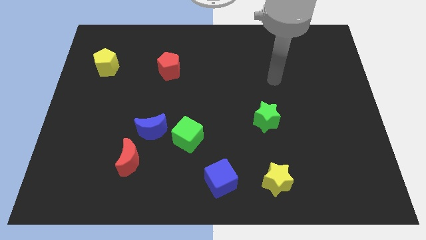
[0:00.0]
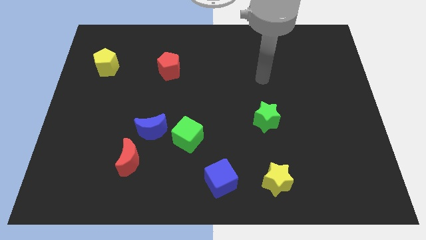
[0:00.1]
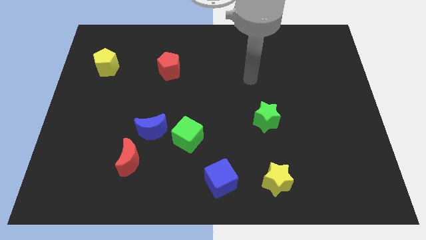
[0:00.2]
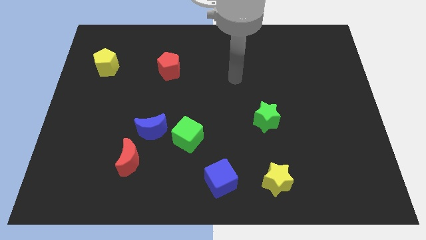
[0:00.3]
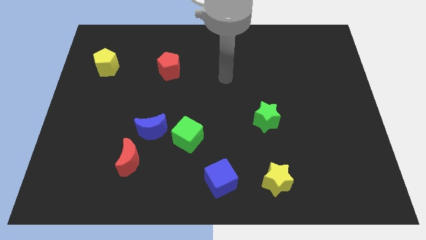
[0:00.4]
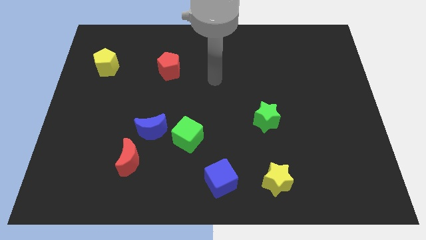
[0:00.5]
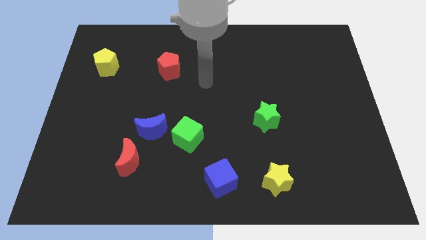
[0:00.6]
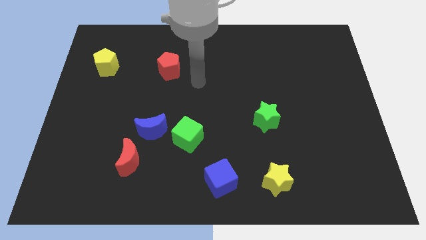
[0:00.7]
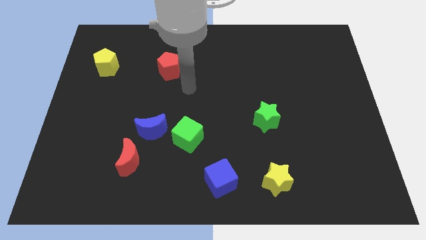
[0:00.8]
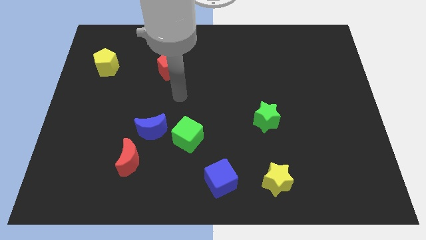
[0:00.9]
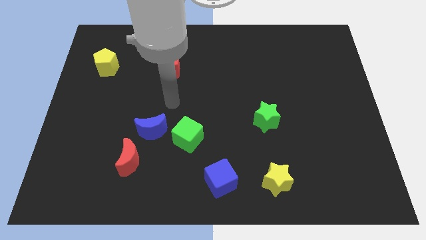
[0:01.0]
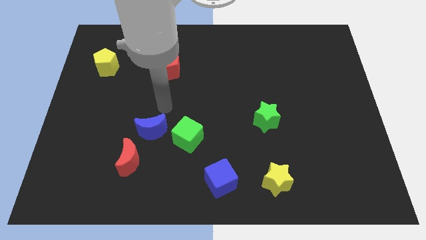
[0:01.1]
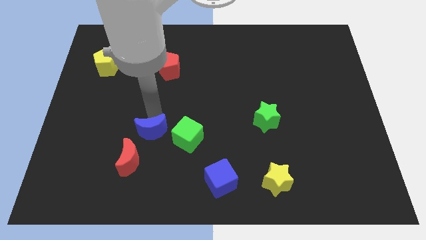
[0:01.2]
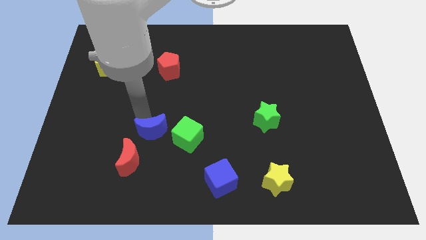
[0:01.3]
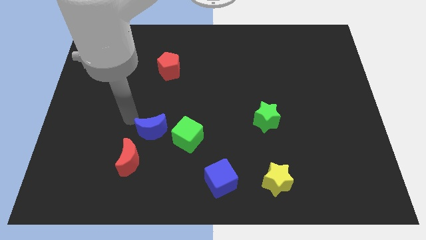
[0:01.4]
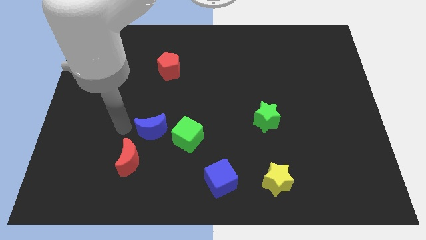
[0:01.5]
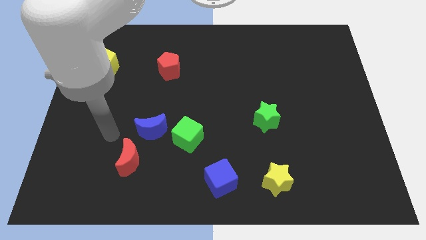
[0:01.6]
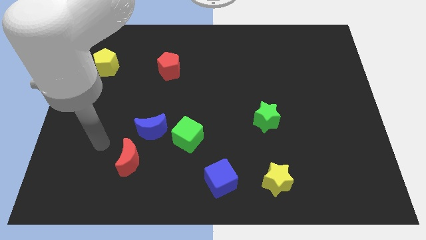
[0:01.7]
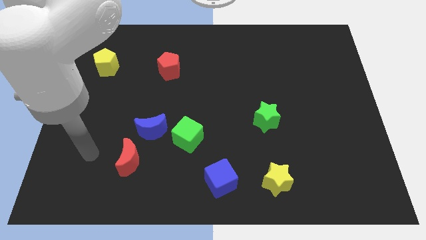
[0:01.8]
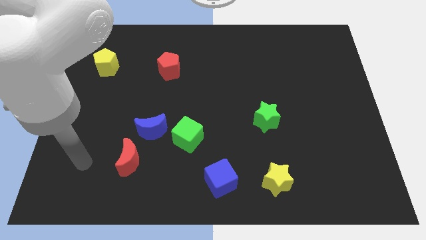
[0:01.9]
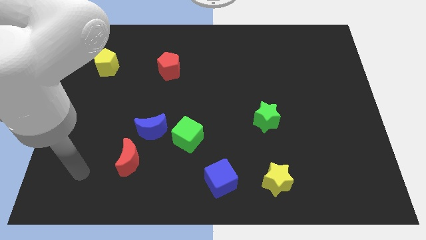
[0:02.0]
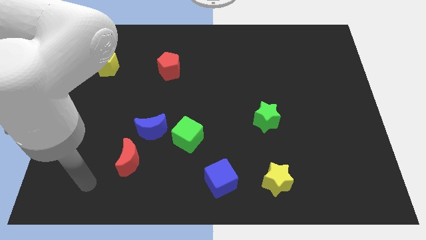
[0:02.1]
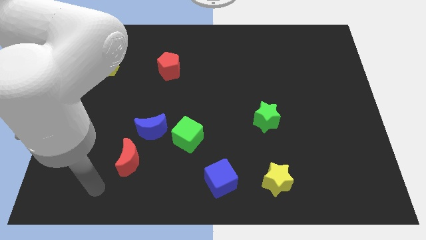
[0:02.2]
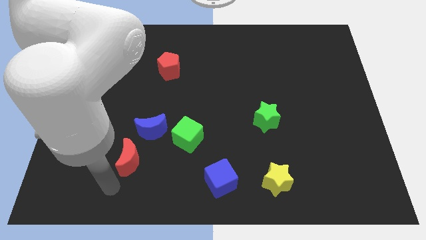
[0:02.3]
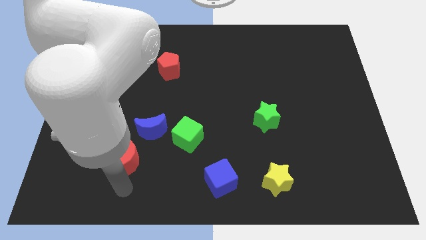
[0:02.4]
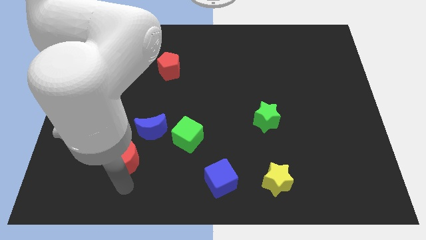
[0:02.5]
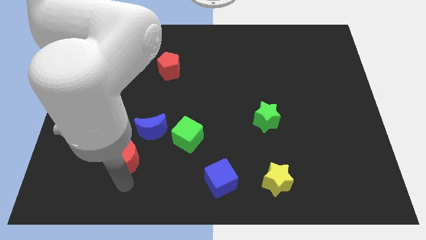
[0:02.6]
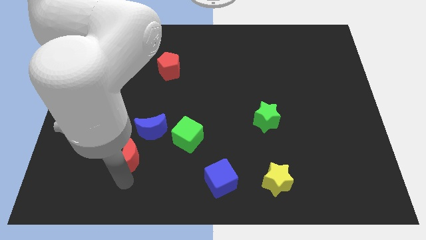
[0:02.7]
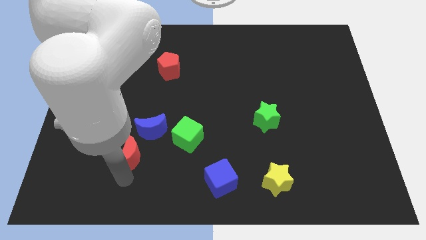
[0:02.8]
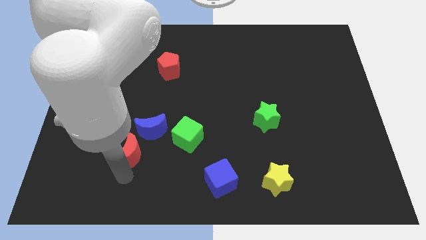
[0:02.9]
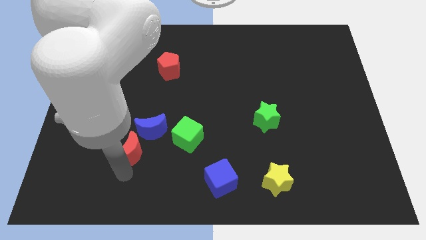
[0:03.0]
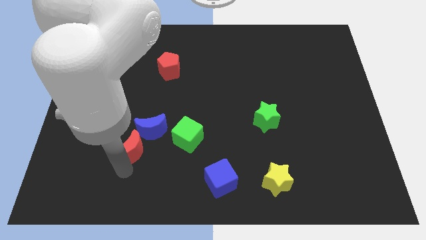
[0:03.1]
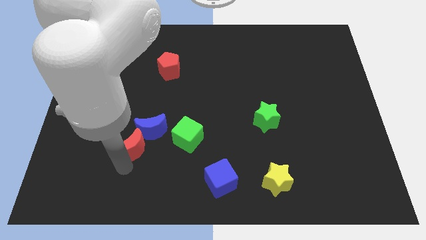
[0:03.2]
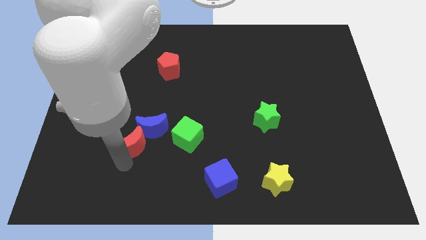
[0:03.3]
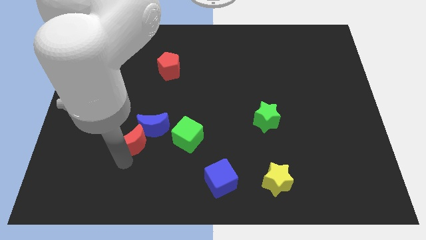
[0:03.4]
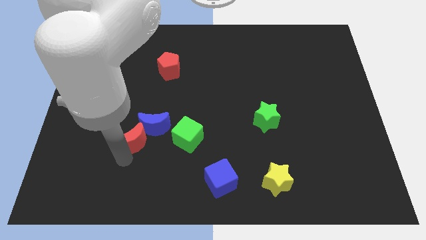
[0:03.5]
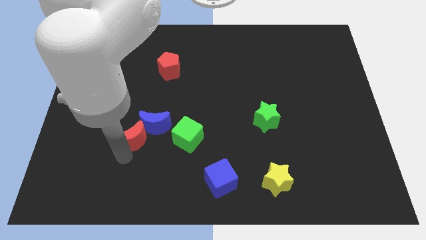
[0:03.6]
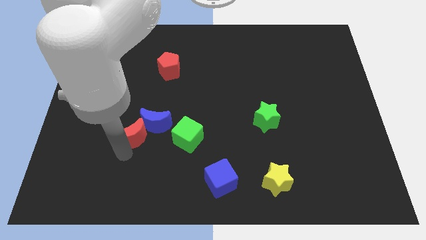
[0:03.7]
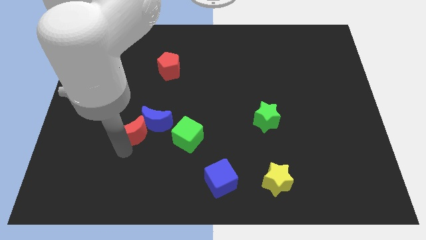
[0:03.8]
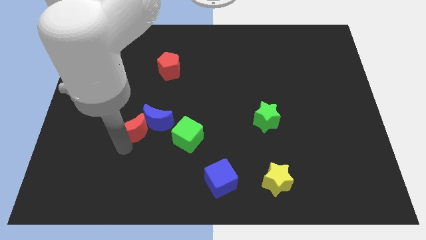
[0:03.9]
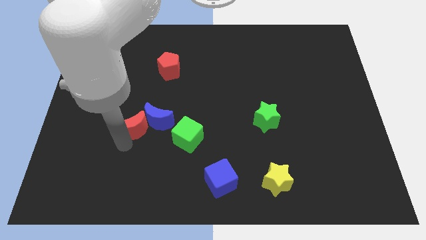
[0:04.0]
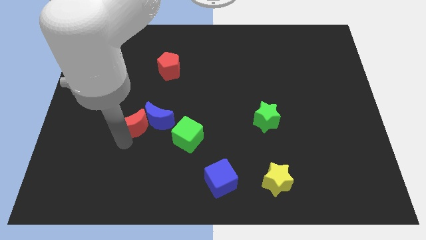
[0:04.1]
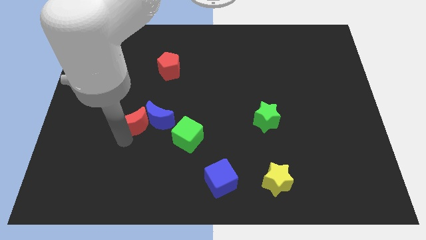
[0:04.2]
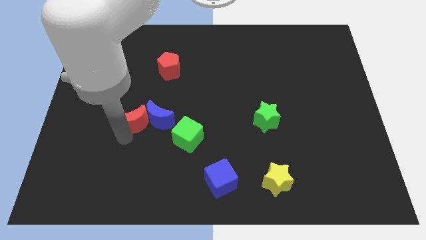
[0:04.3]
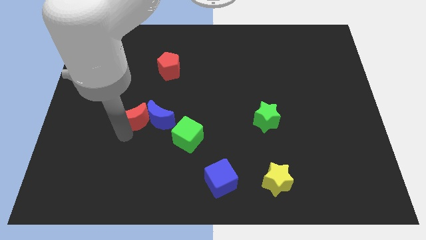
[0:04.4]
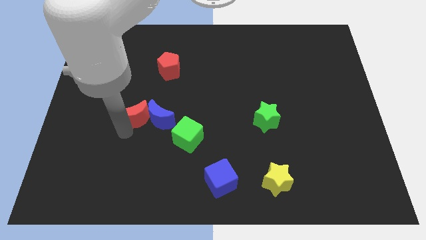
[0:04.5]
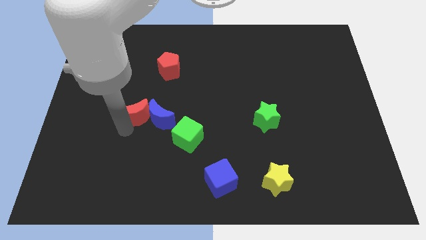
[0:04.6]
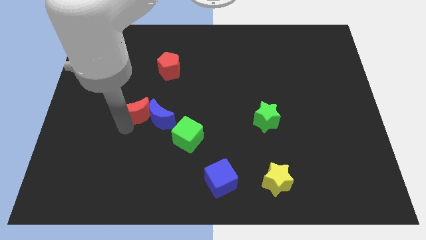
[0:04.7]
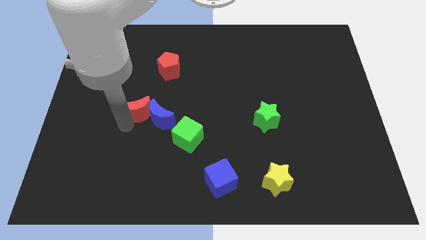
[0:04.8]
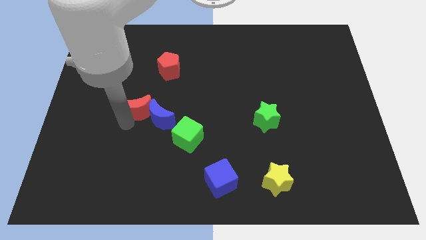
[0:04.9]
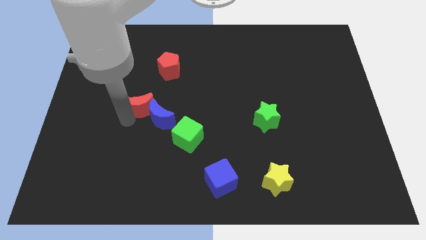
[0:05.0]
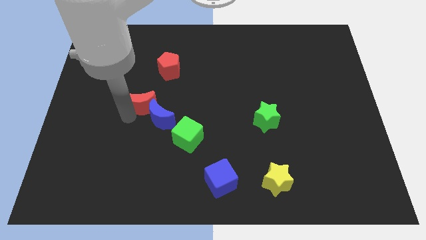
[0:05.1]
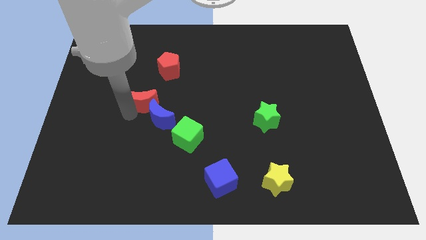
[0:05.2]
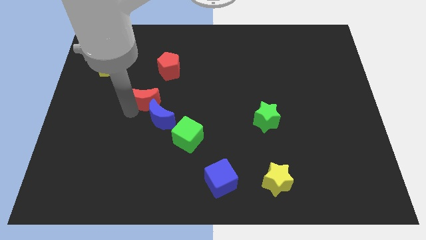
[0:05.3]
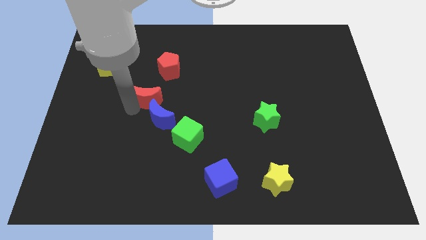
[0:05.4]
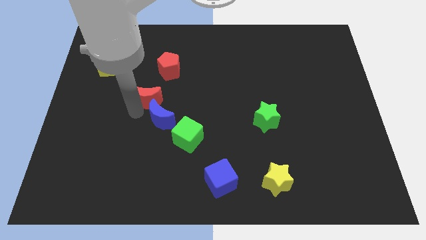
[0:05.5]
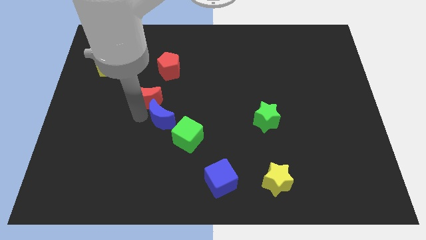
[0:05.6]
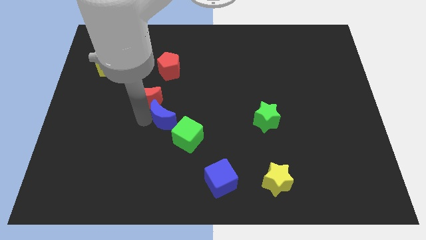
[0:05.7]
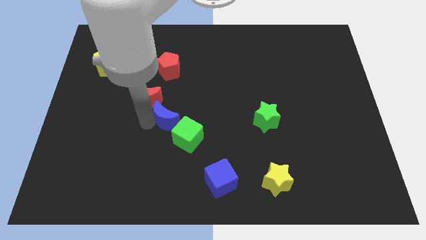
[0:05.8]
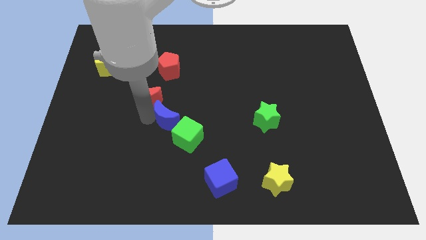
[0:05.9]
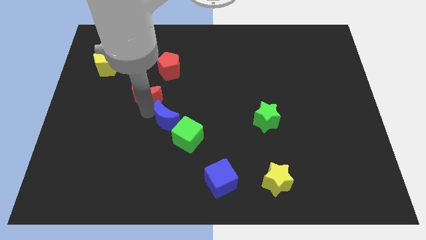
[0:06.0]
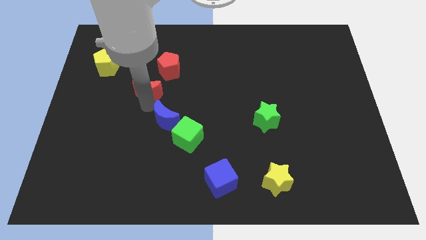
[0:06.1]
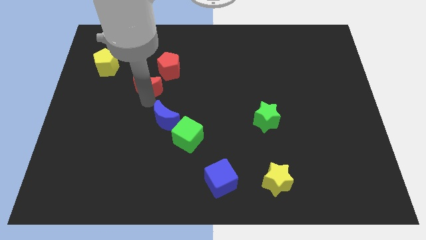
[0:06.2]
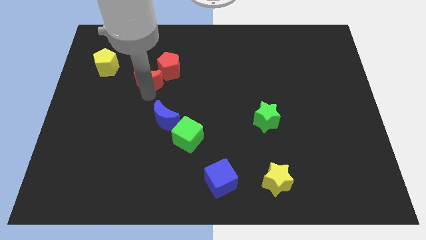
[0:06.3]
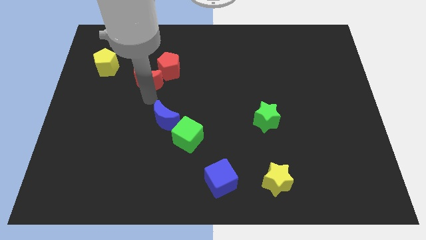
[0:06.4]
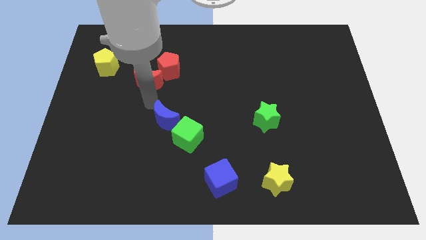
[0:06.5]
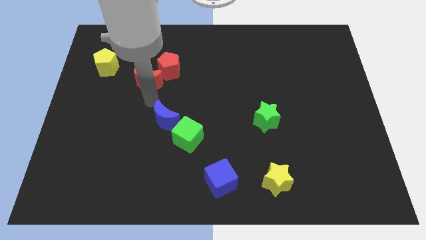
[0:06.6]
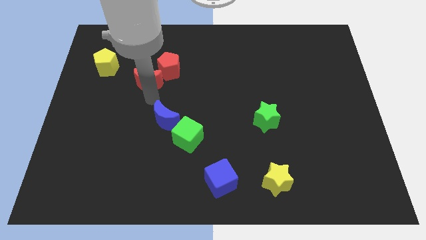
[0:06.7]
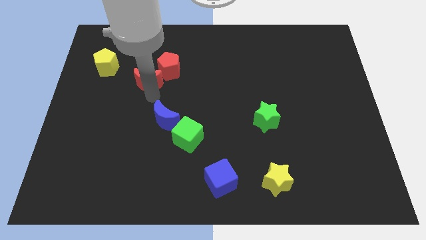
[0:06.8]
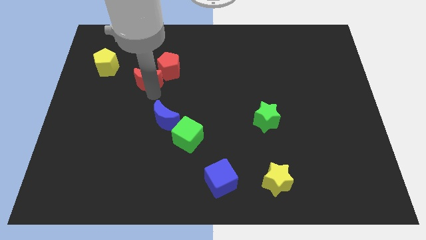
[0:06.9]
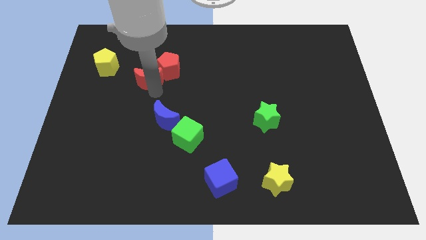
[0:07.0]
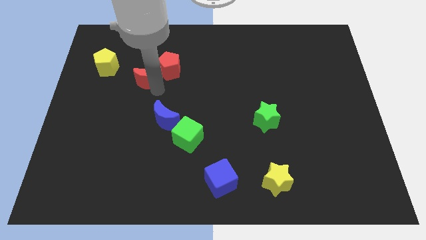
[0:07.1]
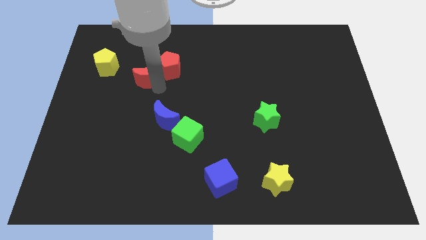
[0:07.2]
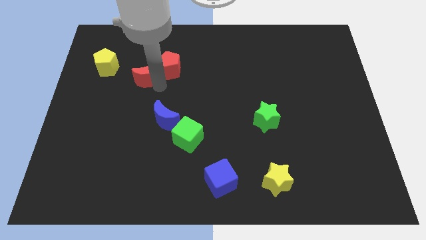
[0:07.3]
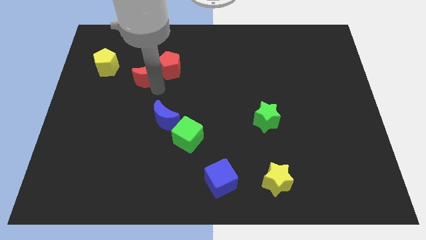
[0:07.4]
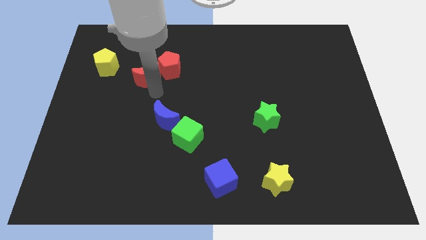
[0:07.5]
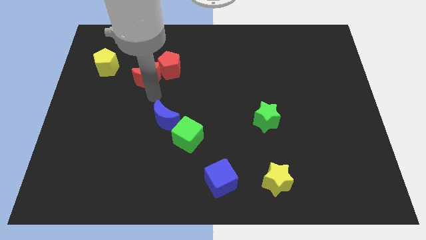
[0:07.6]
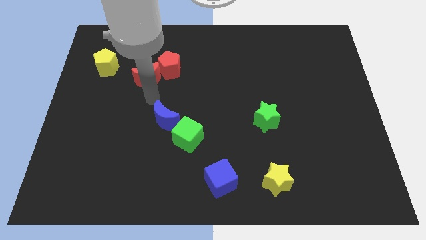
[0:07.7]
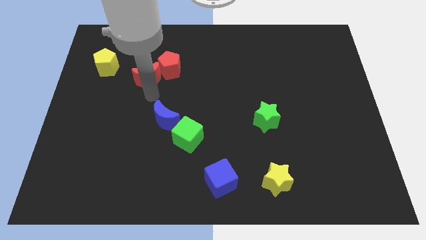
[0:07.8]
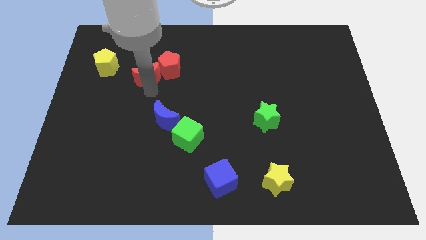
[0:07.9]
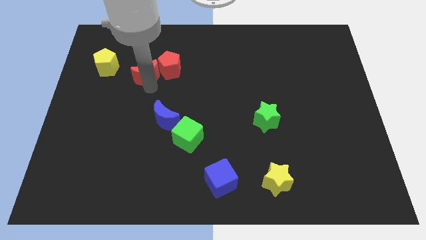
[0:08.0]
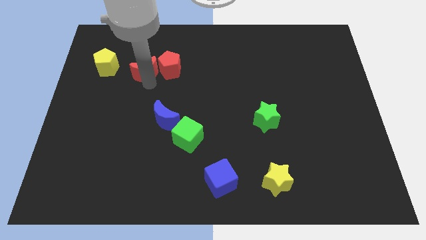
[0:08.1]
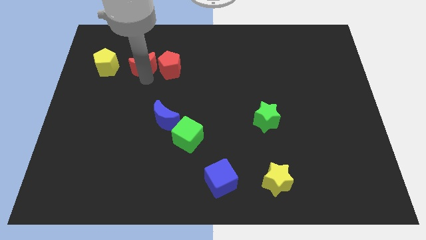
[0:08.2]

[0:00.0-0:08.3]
put the red moon to the top left of the red pentagon
